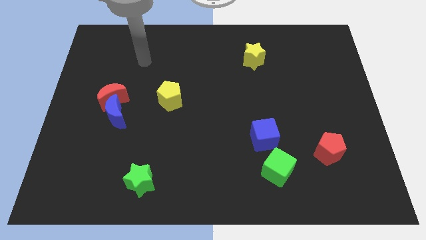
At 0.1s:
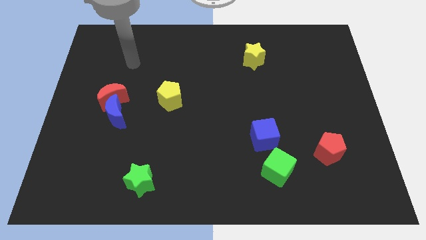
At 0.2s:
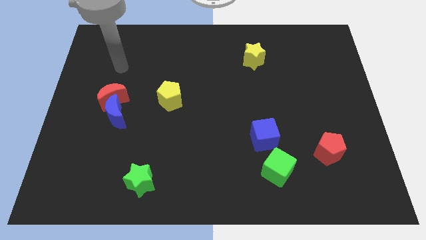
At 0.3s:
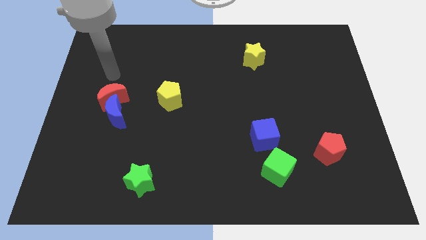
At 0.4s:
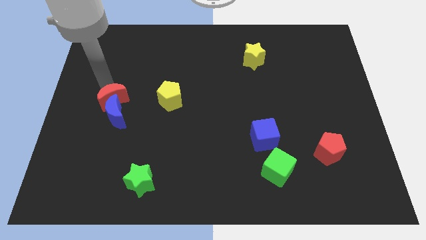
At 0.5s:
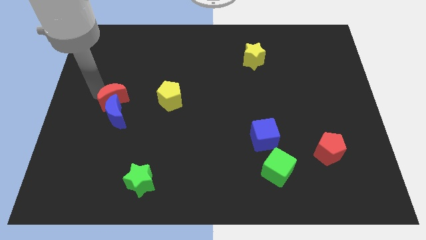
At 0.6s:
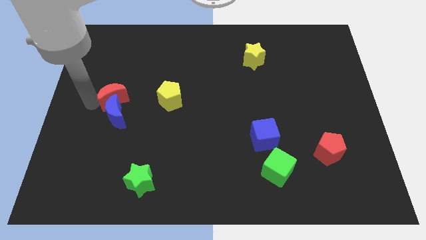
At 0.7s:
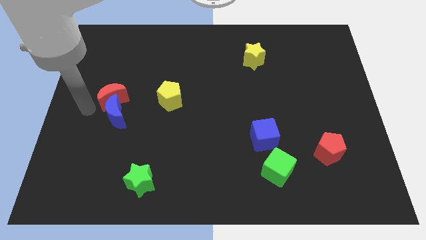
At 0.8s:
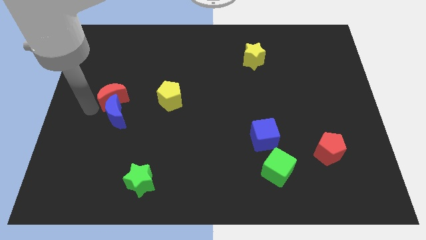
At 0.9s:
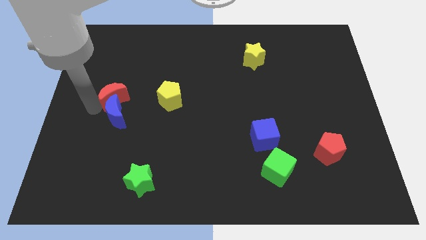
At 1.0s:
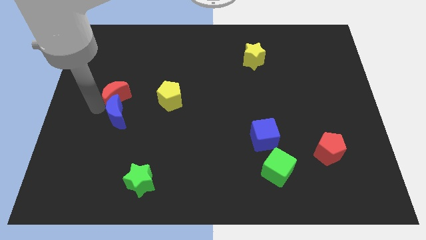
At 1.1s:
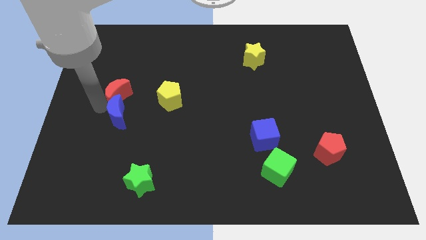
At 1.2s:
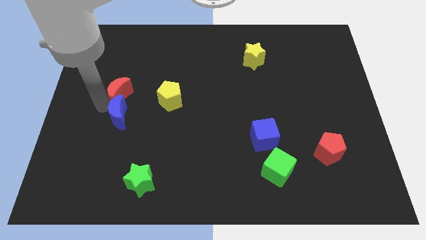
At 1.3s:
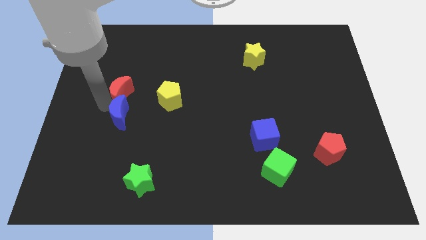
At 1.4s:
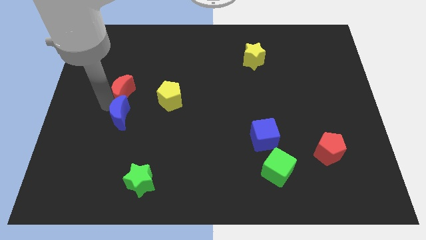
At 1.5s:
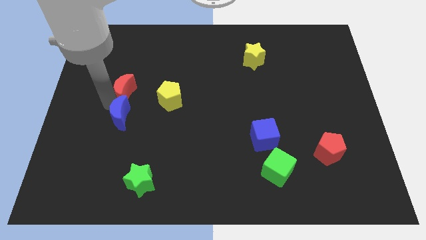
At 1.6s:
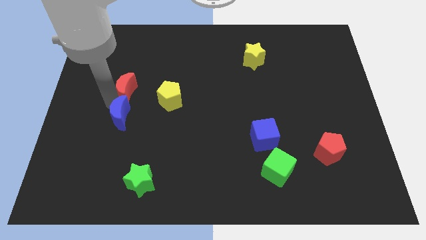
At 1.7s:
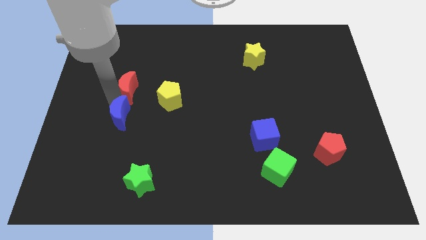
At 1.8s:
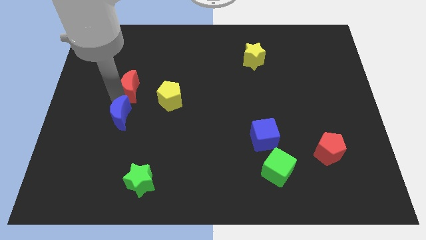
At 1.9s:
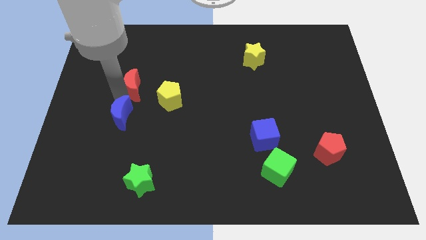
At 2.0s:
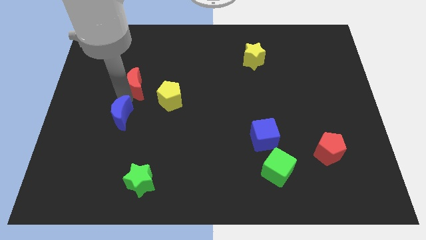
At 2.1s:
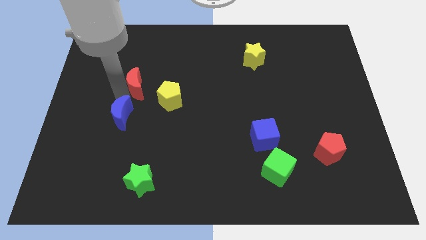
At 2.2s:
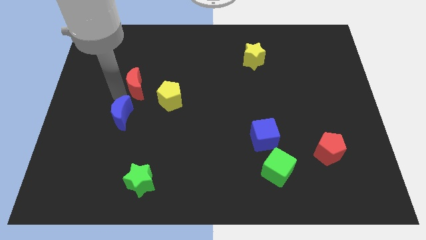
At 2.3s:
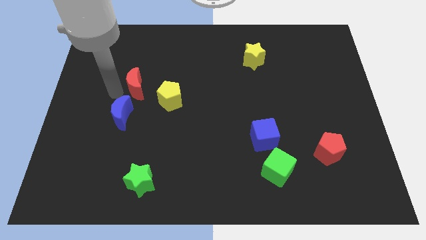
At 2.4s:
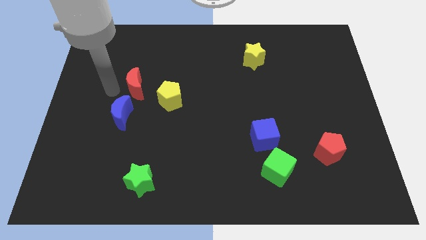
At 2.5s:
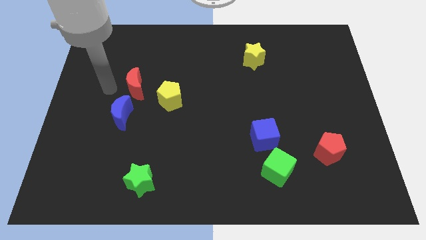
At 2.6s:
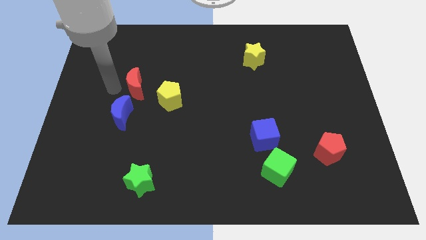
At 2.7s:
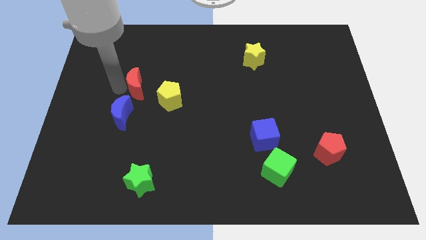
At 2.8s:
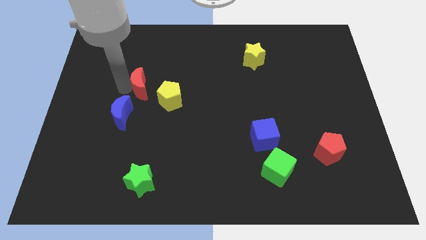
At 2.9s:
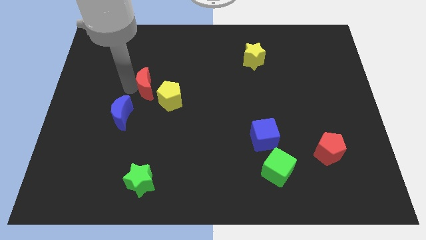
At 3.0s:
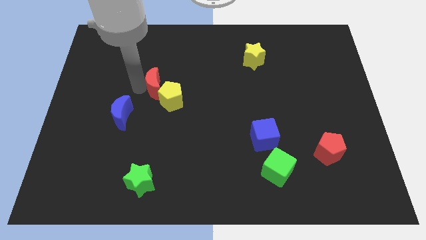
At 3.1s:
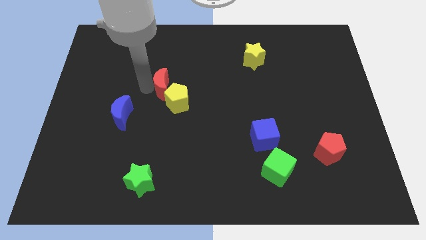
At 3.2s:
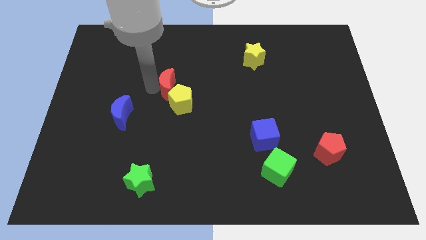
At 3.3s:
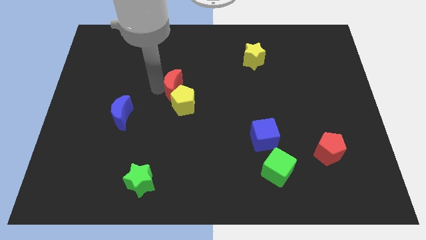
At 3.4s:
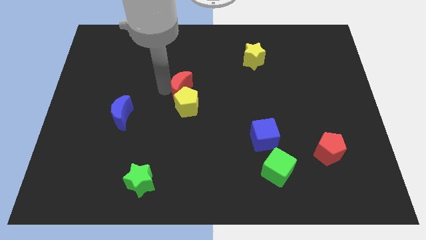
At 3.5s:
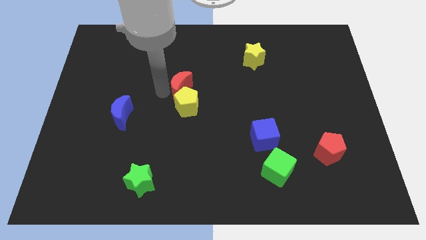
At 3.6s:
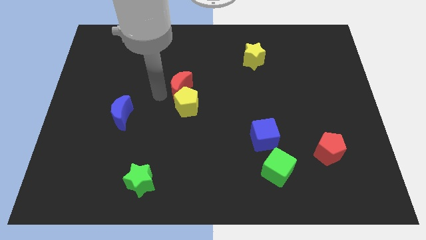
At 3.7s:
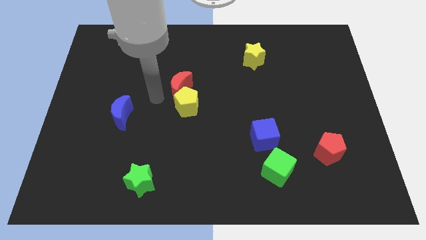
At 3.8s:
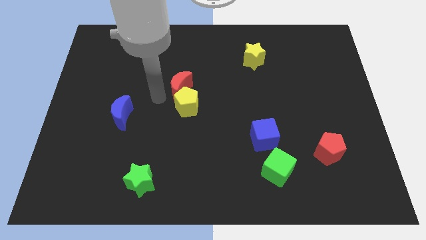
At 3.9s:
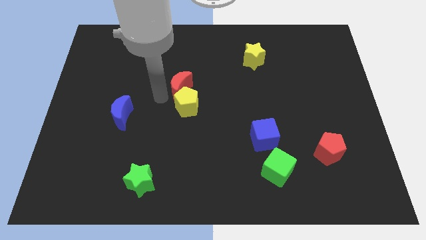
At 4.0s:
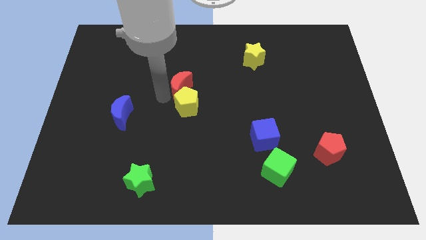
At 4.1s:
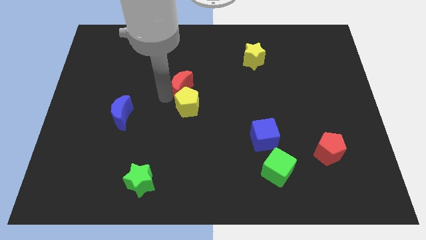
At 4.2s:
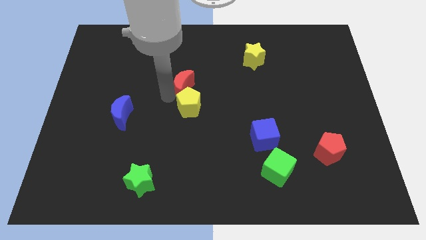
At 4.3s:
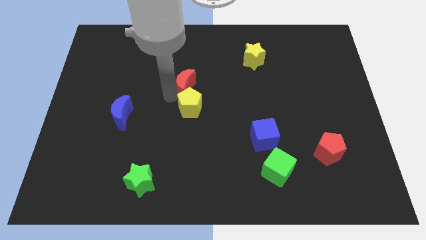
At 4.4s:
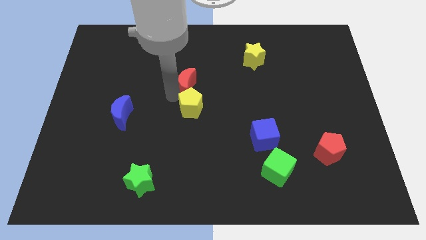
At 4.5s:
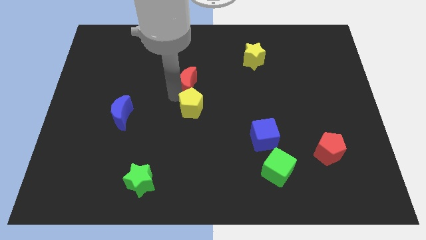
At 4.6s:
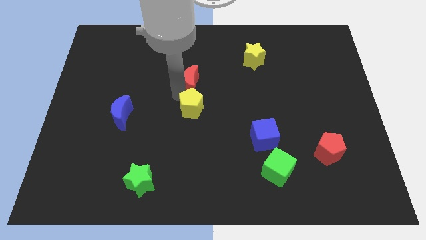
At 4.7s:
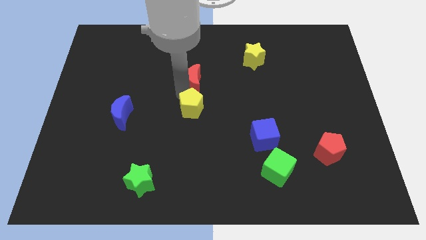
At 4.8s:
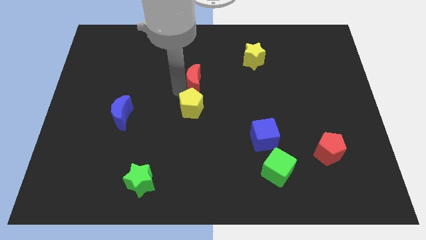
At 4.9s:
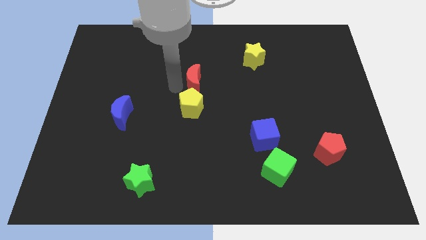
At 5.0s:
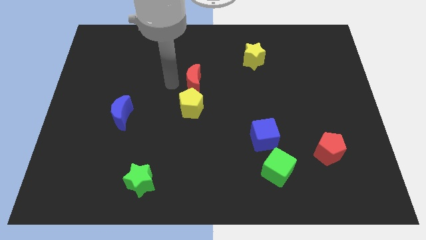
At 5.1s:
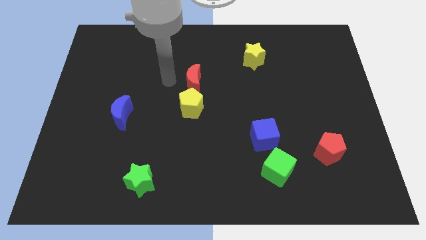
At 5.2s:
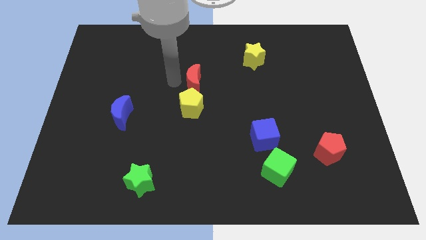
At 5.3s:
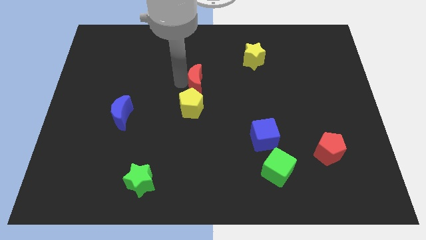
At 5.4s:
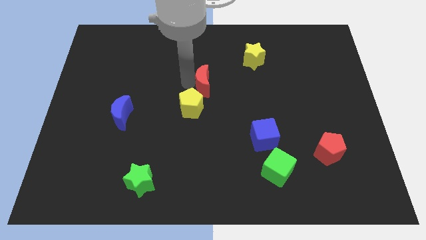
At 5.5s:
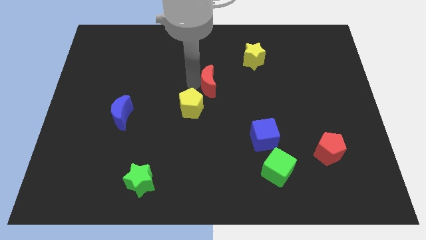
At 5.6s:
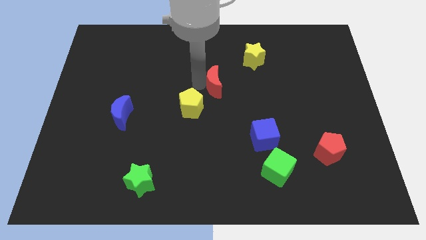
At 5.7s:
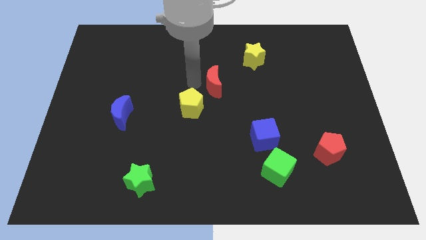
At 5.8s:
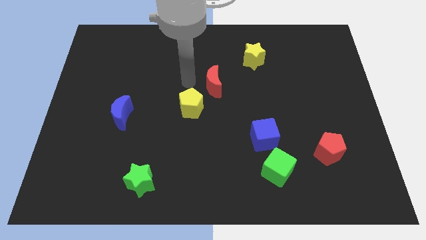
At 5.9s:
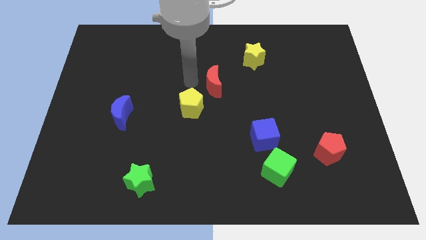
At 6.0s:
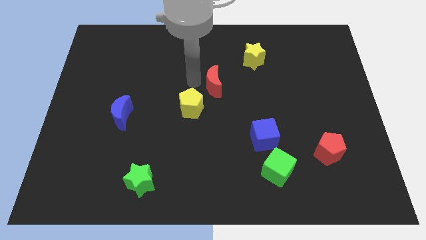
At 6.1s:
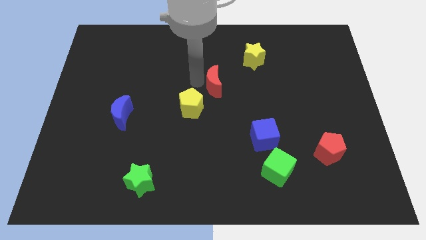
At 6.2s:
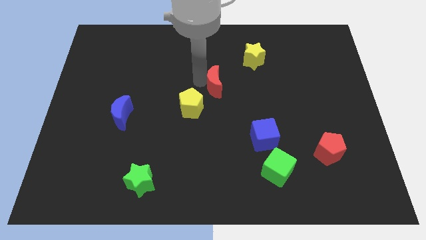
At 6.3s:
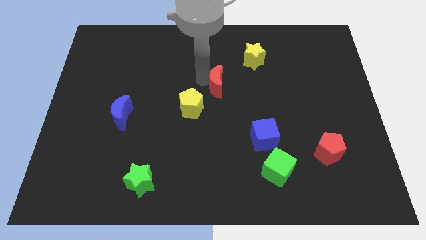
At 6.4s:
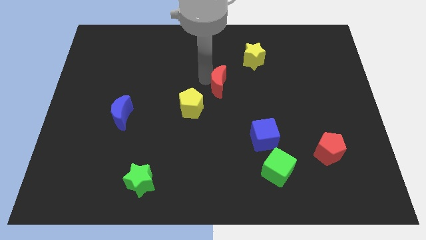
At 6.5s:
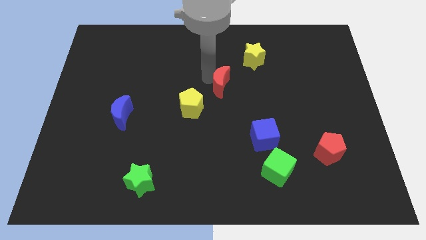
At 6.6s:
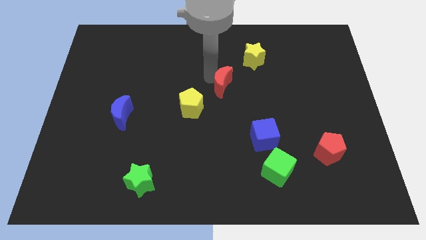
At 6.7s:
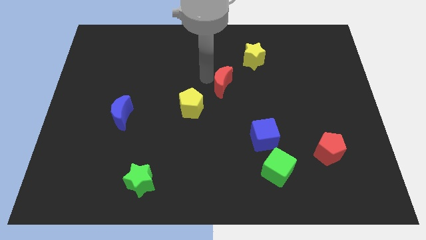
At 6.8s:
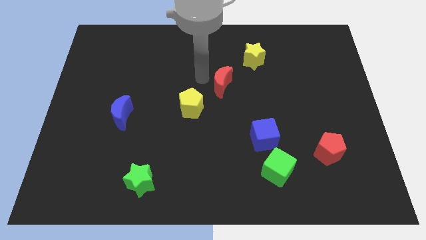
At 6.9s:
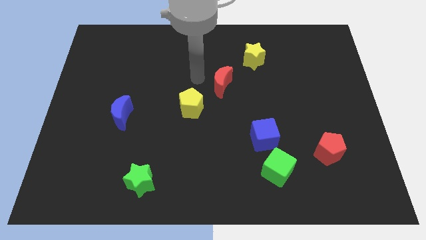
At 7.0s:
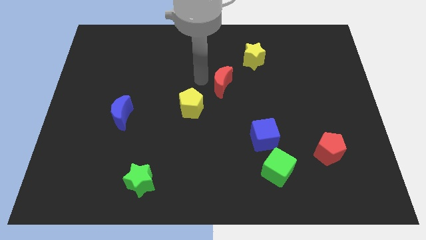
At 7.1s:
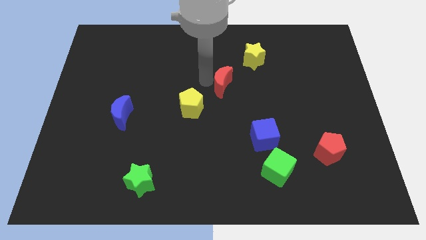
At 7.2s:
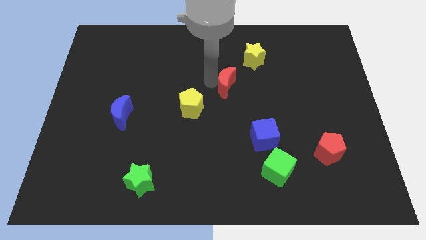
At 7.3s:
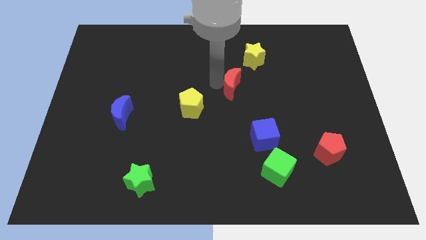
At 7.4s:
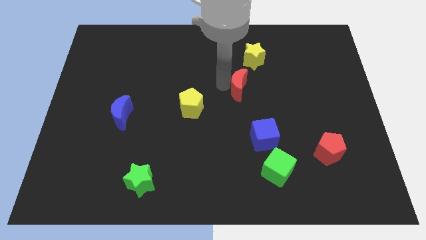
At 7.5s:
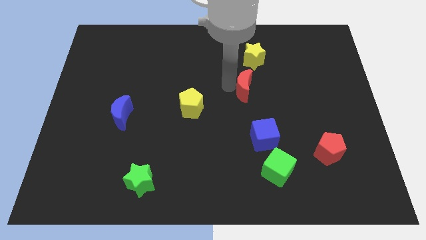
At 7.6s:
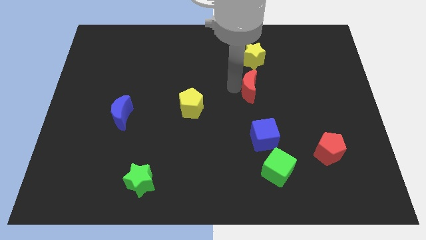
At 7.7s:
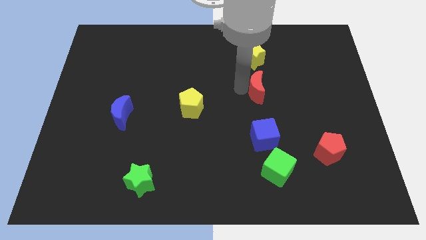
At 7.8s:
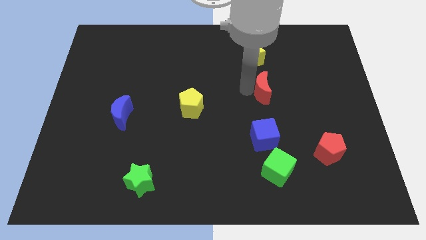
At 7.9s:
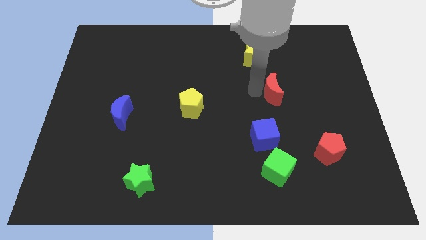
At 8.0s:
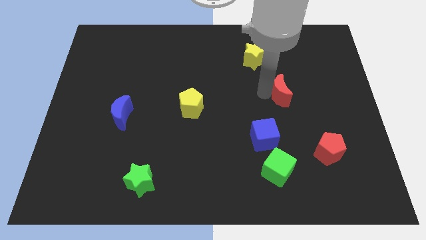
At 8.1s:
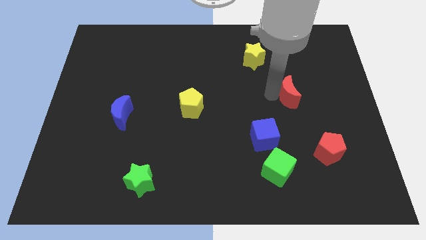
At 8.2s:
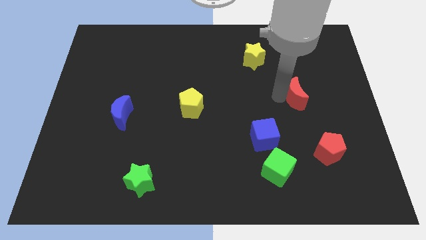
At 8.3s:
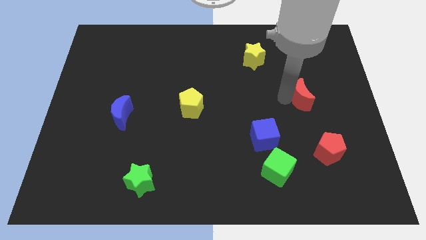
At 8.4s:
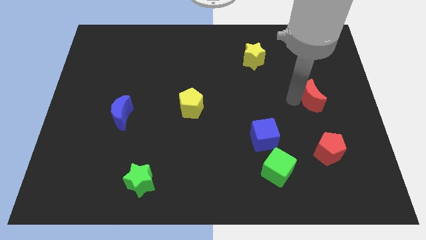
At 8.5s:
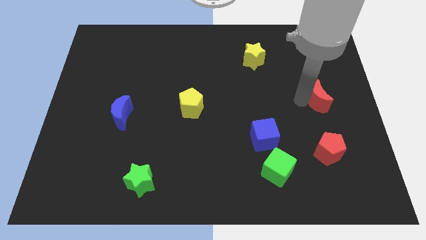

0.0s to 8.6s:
push the red moon to the center right
